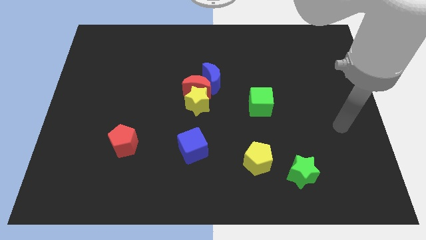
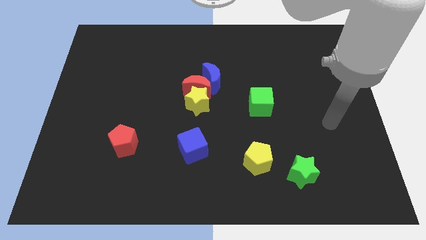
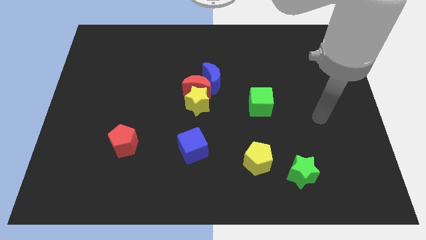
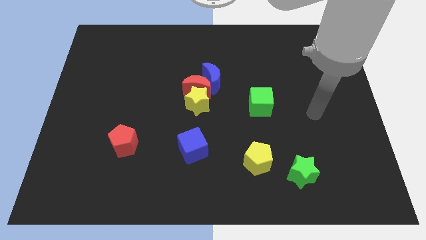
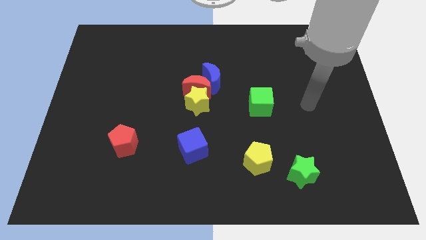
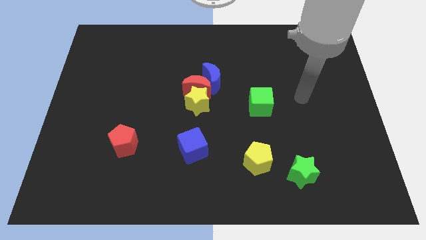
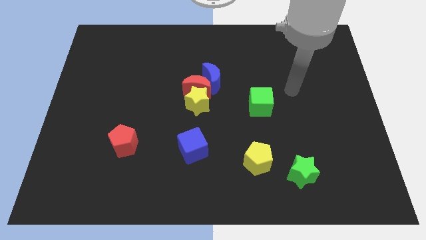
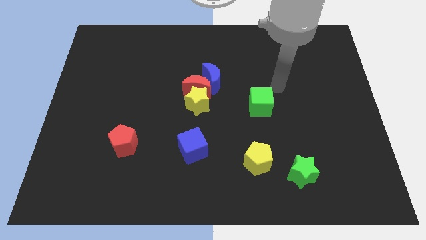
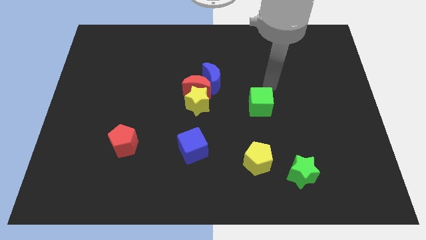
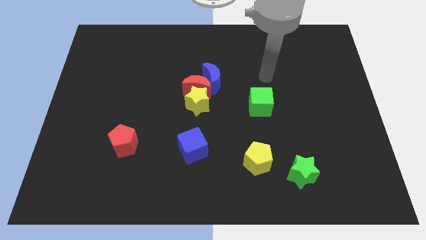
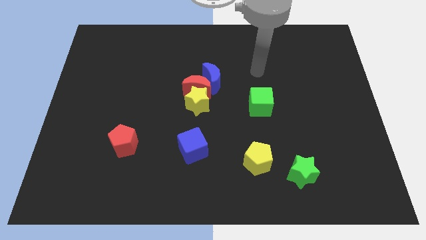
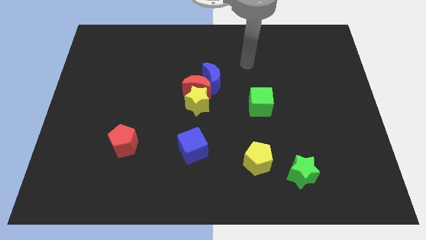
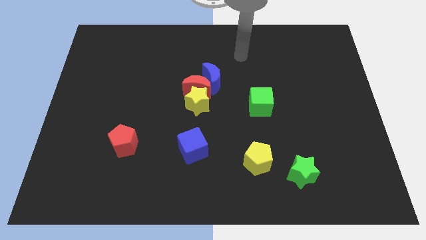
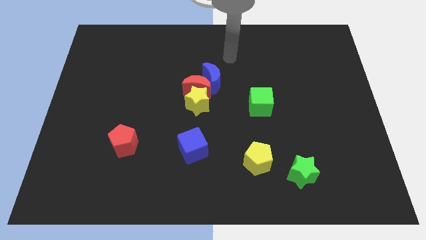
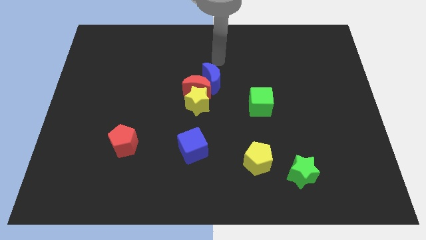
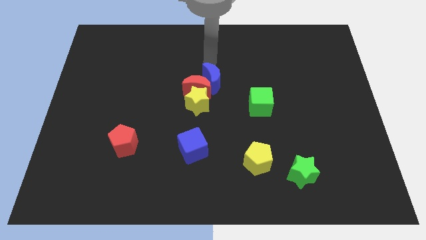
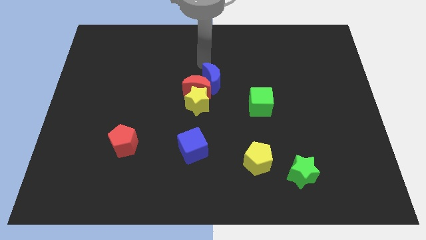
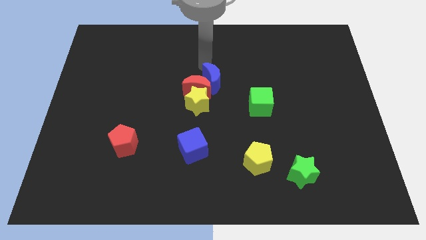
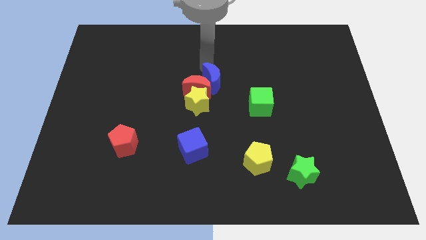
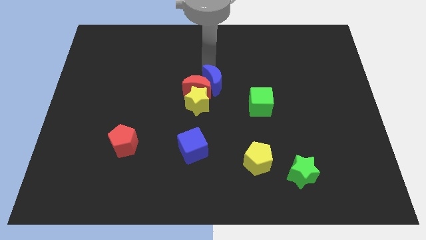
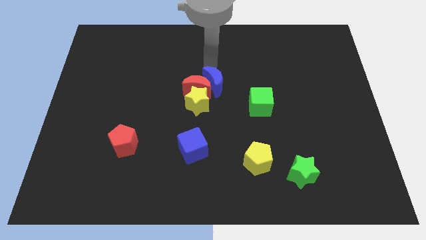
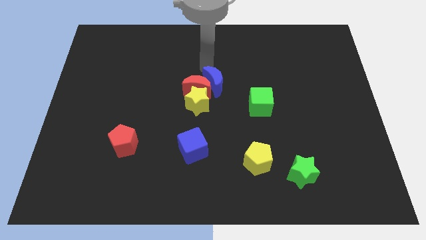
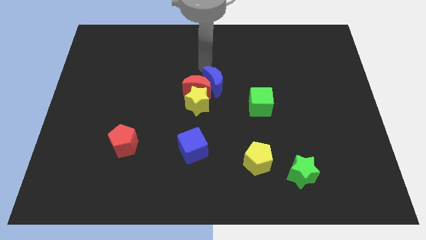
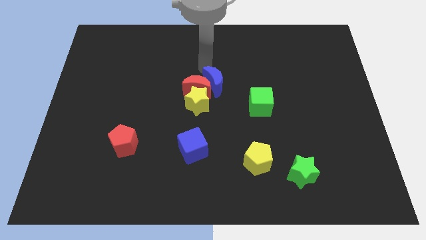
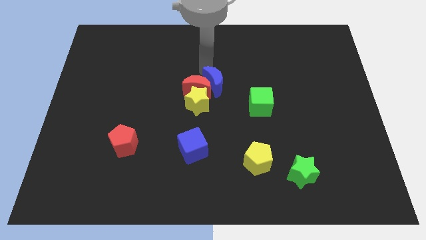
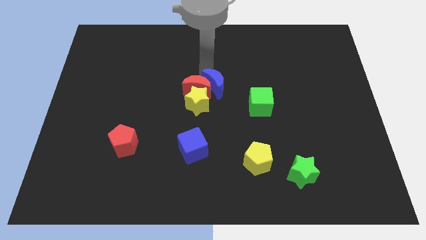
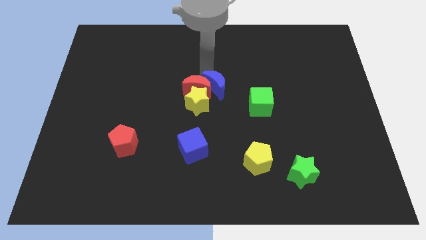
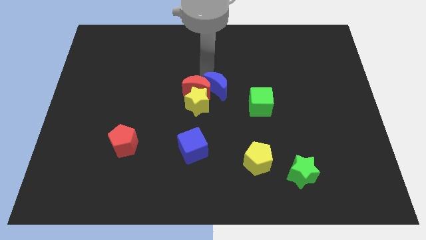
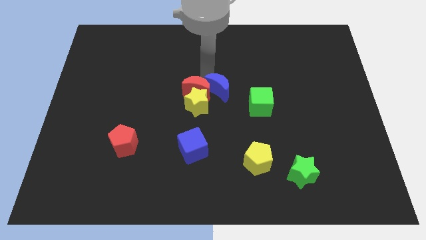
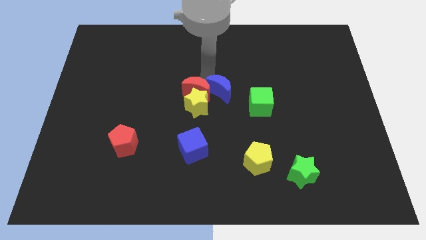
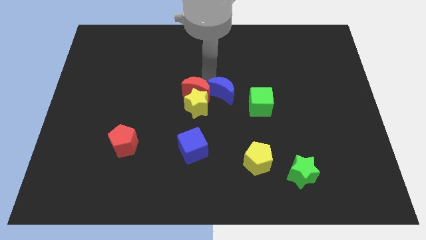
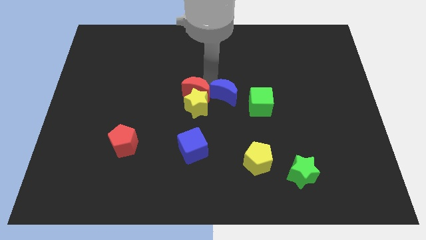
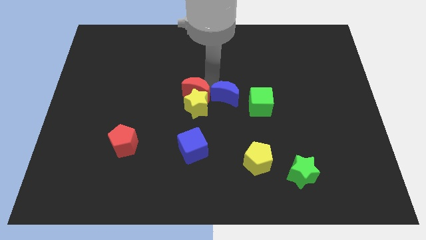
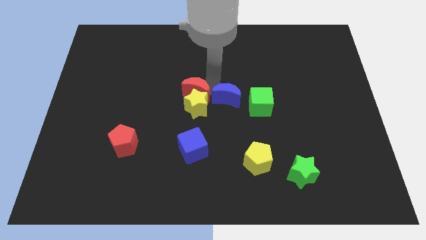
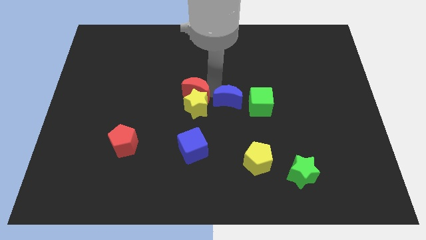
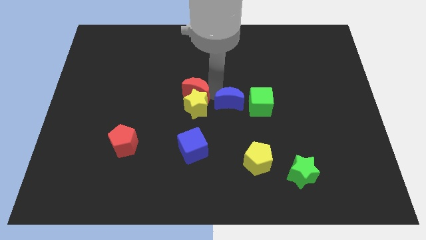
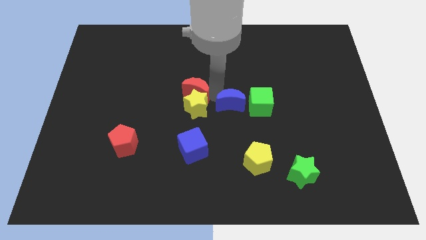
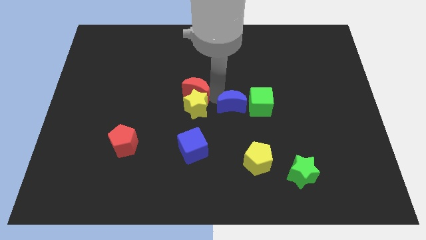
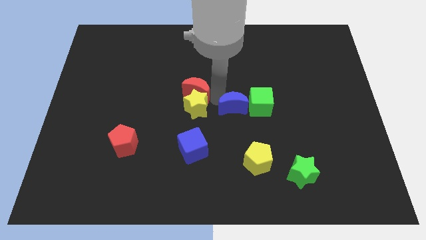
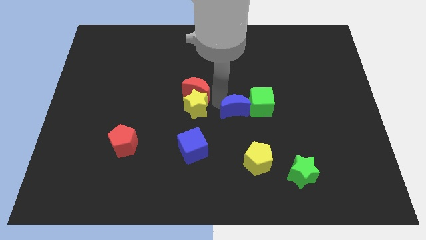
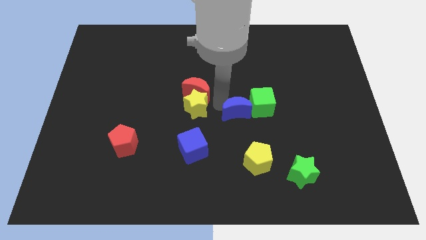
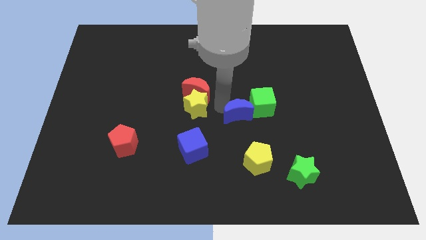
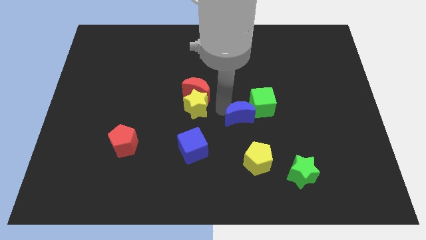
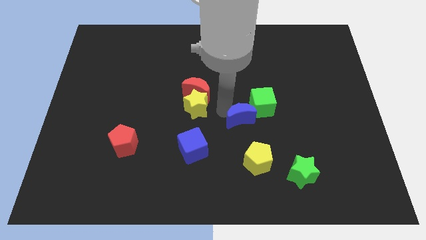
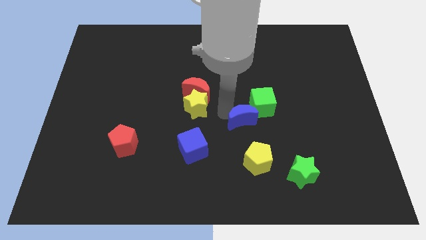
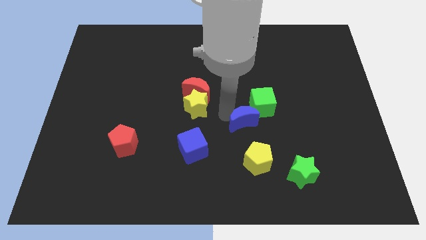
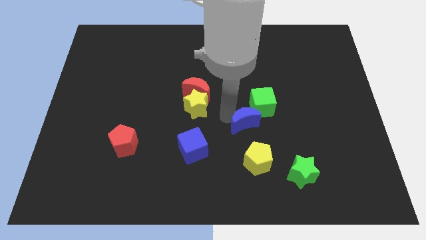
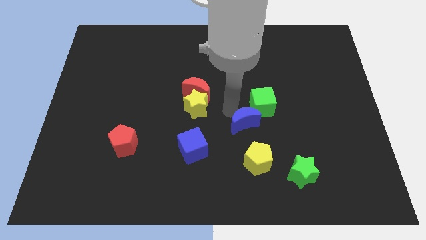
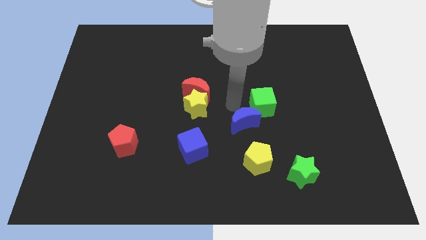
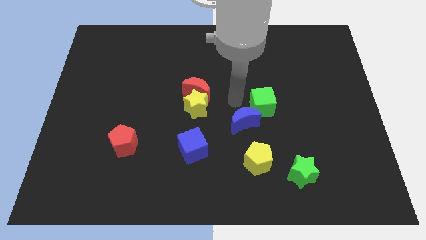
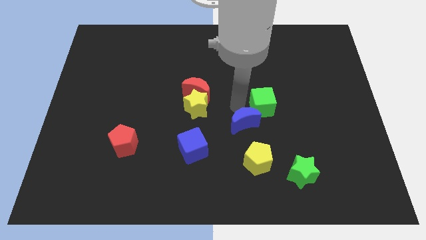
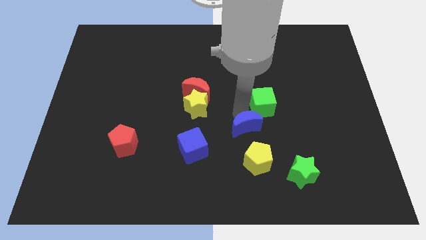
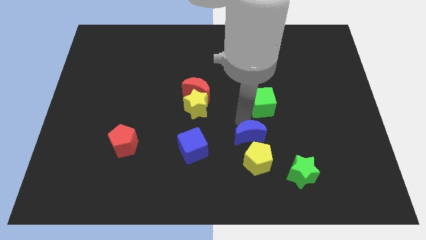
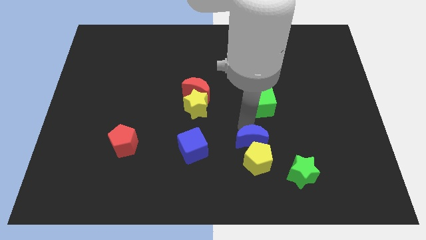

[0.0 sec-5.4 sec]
push the blue moon close to the yellow pentagon

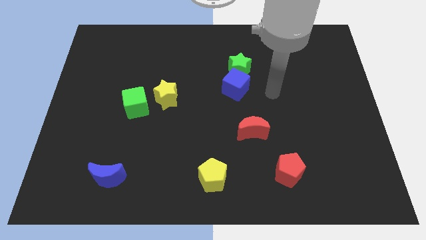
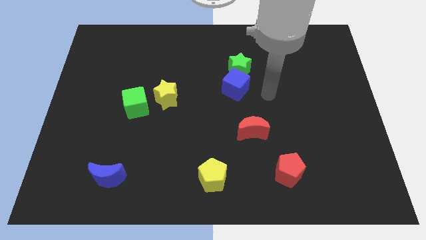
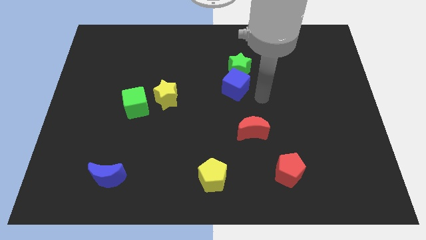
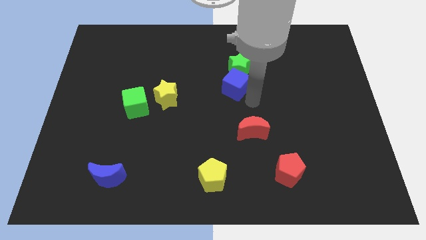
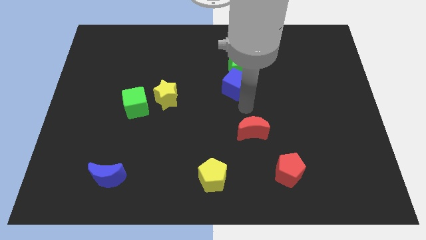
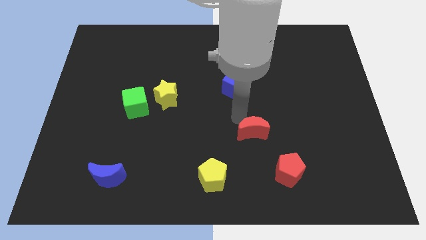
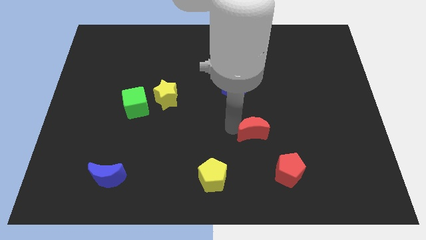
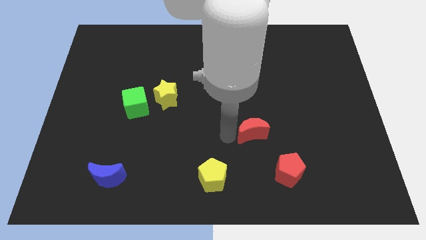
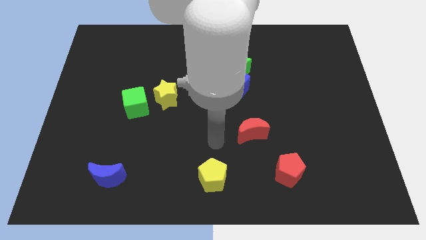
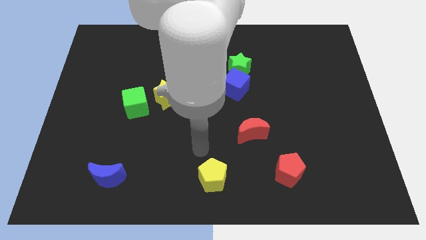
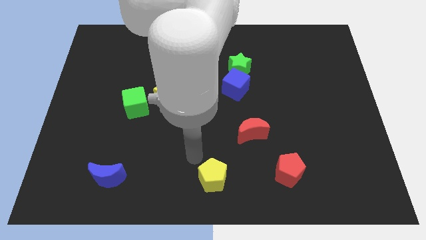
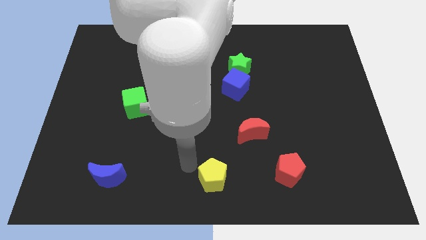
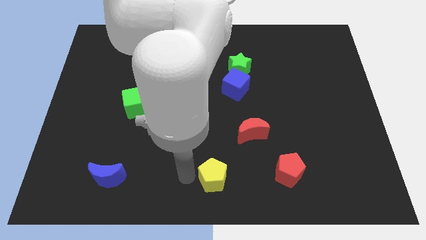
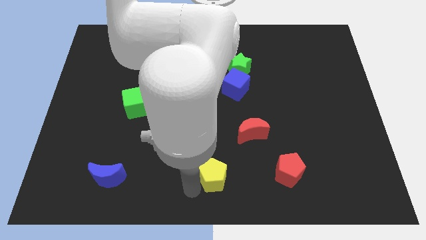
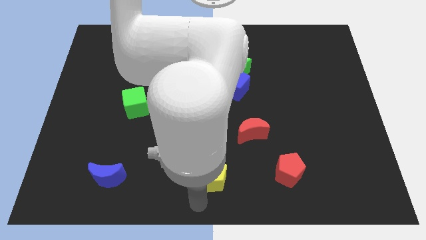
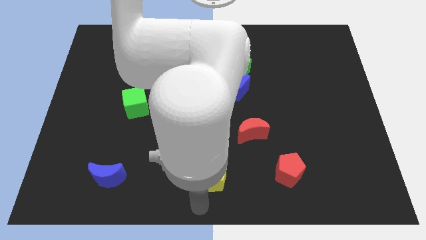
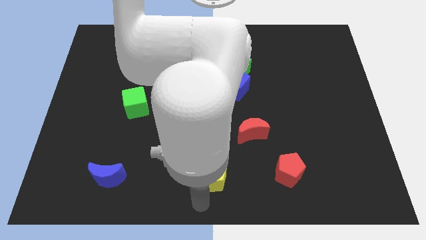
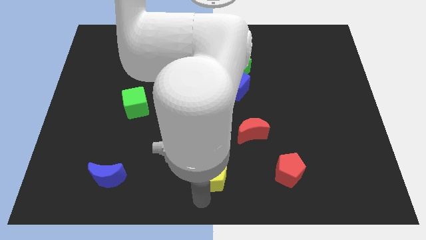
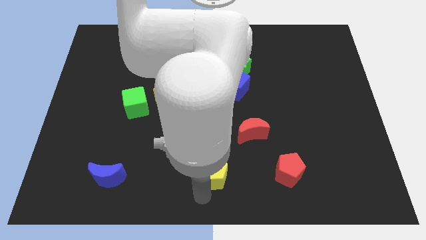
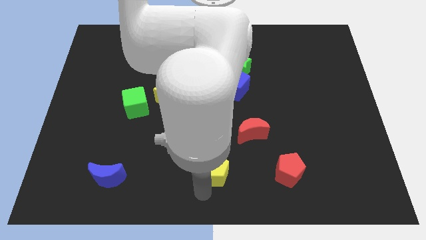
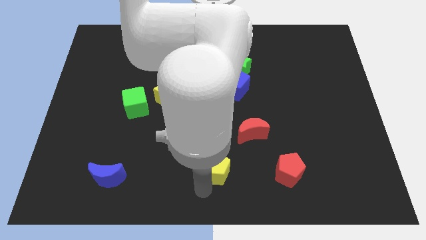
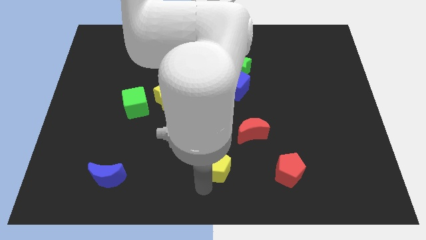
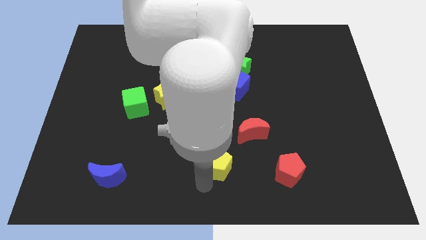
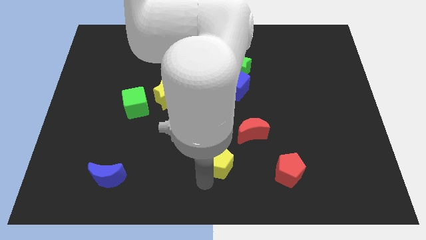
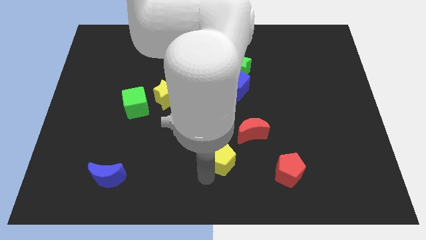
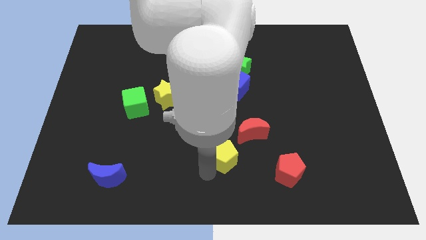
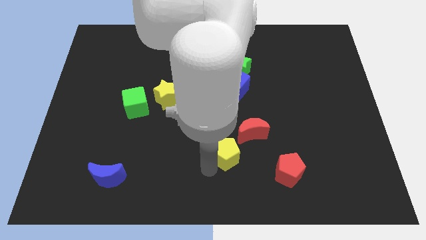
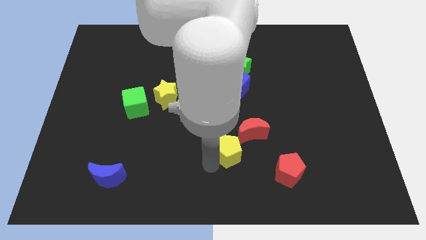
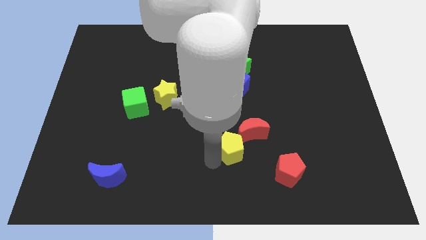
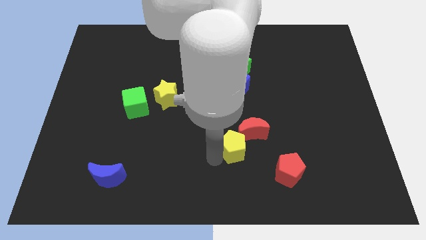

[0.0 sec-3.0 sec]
slide the yellow pentagon close to the red moon
